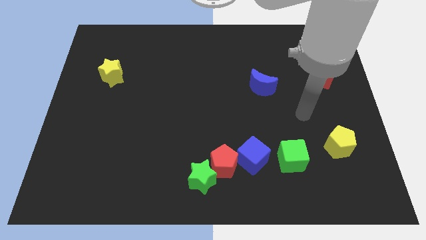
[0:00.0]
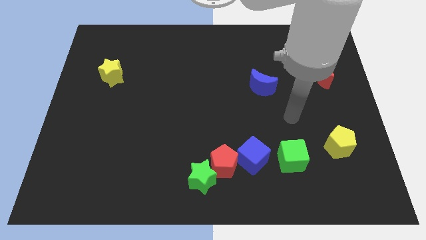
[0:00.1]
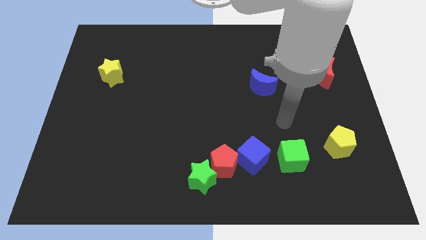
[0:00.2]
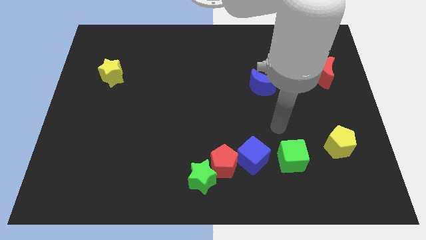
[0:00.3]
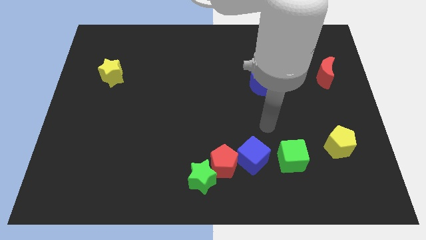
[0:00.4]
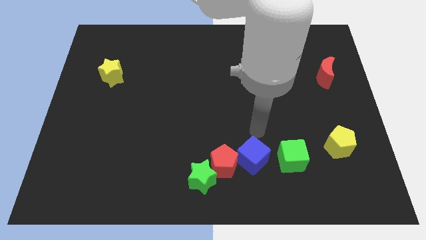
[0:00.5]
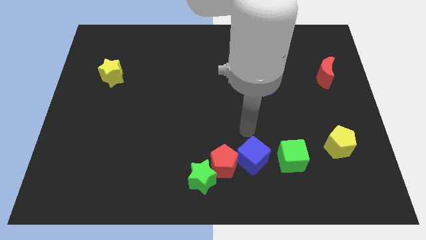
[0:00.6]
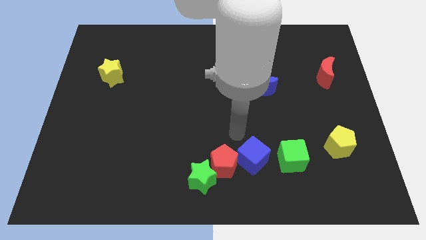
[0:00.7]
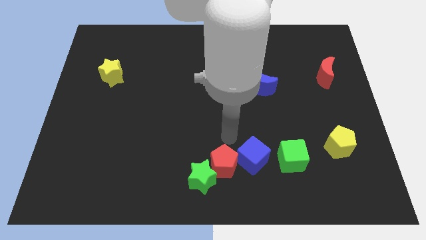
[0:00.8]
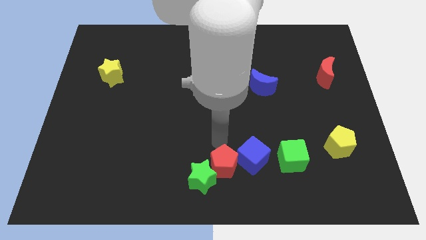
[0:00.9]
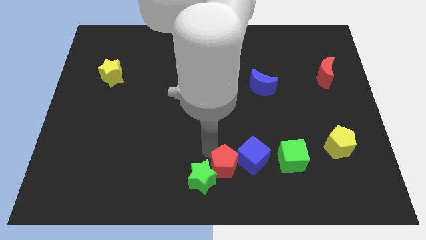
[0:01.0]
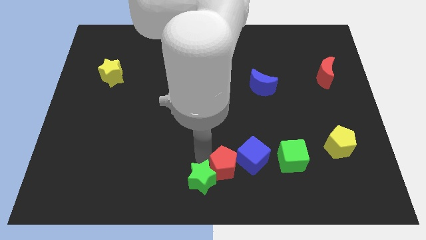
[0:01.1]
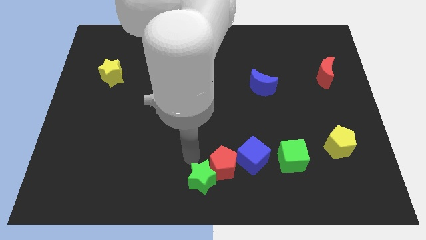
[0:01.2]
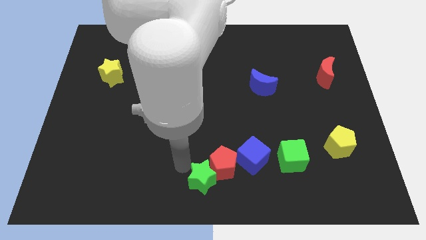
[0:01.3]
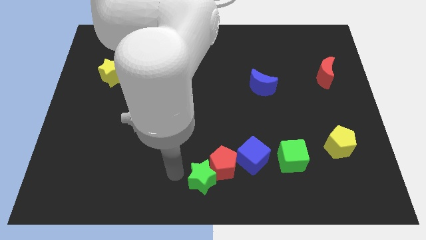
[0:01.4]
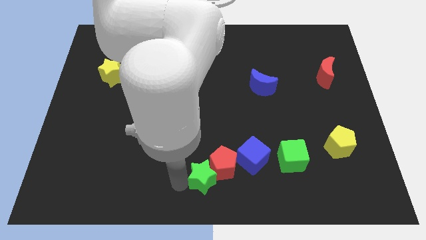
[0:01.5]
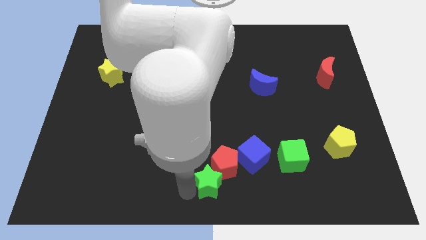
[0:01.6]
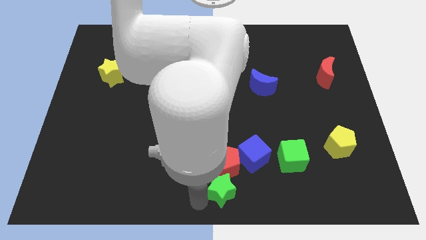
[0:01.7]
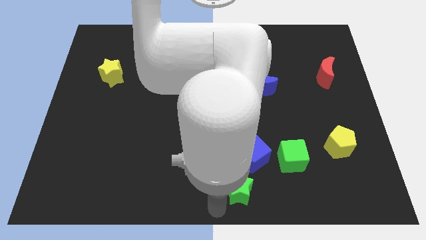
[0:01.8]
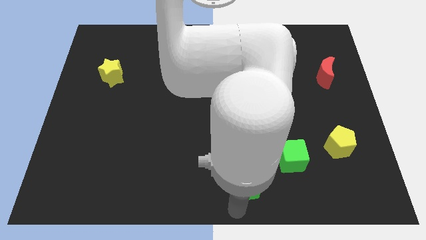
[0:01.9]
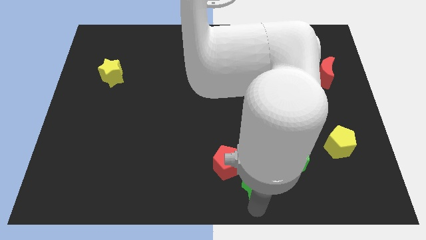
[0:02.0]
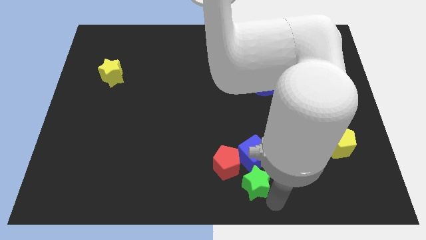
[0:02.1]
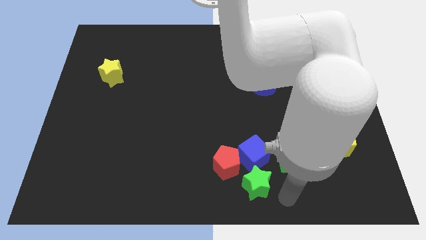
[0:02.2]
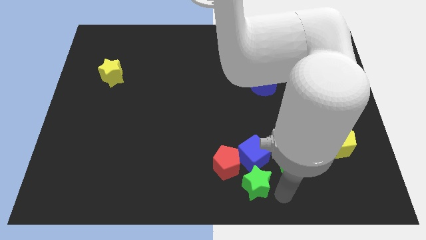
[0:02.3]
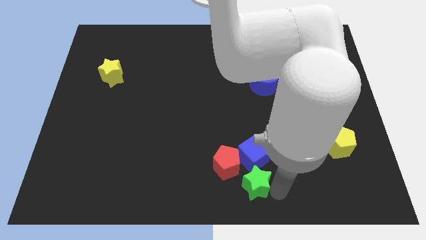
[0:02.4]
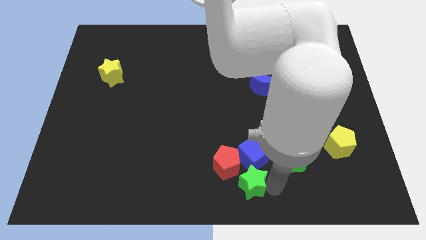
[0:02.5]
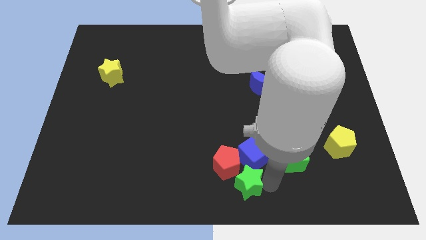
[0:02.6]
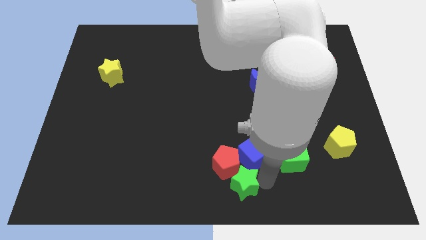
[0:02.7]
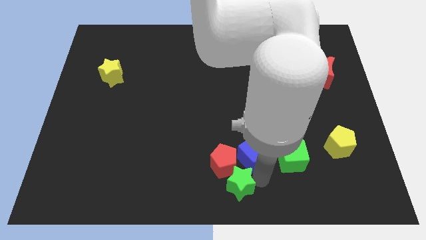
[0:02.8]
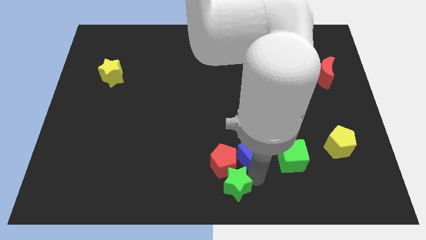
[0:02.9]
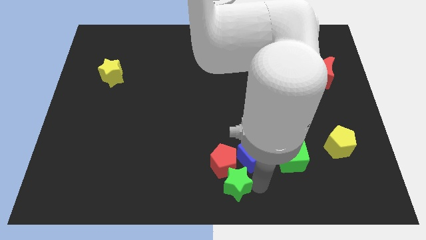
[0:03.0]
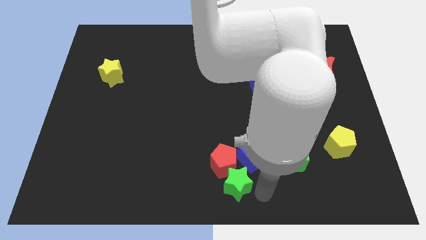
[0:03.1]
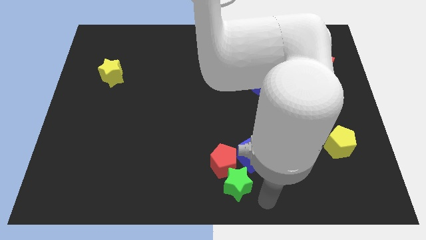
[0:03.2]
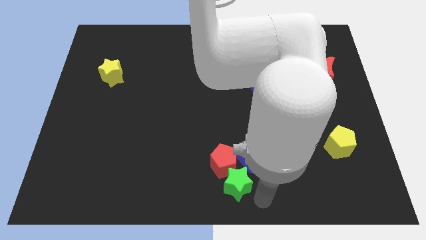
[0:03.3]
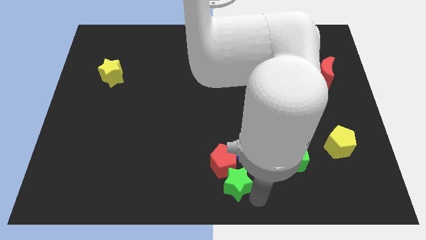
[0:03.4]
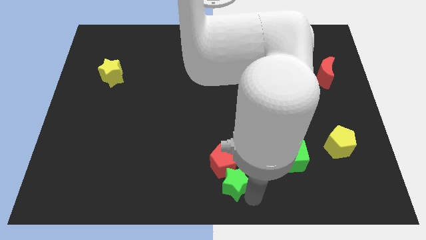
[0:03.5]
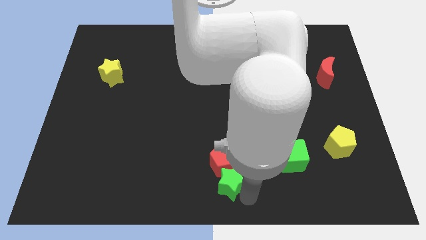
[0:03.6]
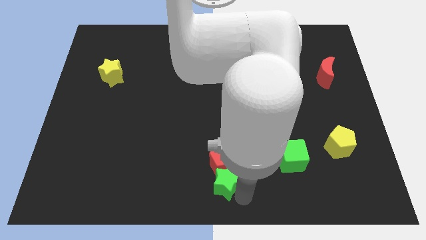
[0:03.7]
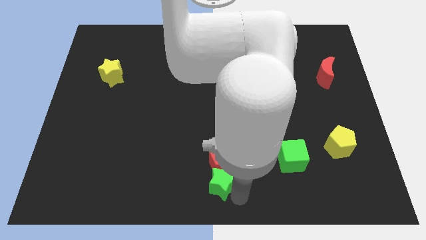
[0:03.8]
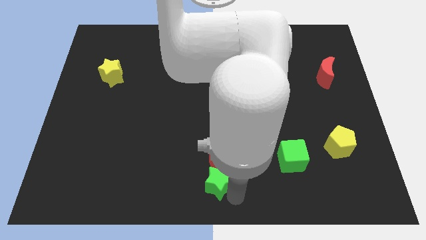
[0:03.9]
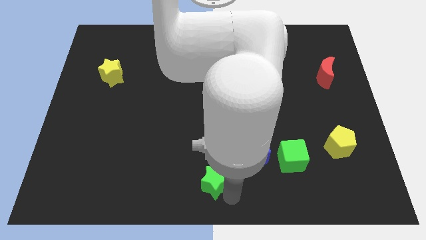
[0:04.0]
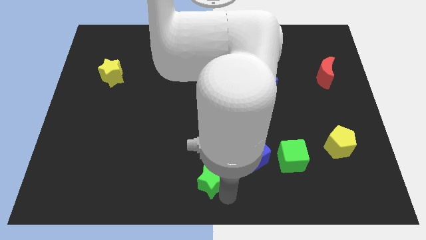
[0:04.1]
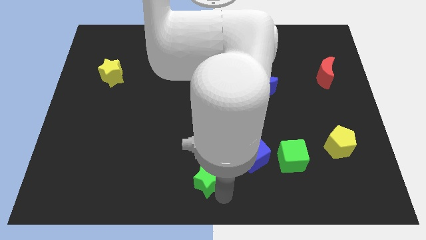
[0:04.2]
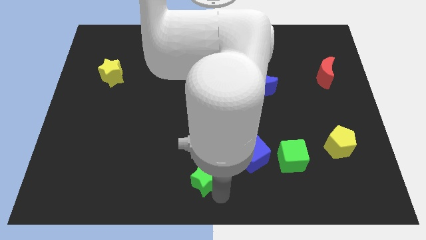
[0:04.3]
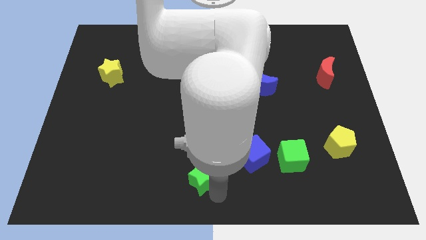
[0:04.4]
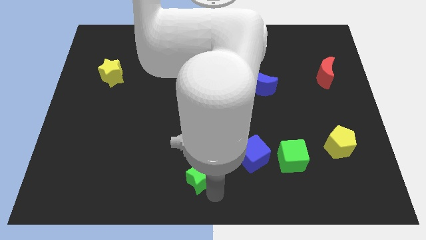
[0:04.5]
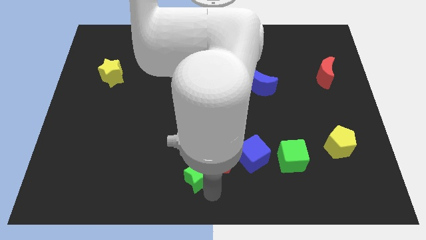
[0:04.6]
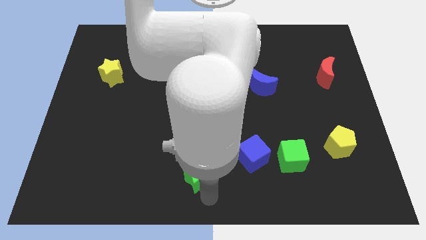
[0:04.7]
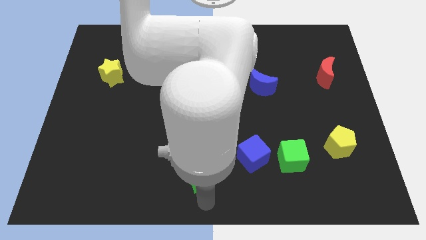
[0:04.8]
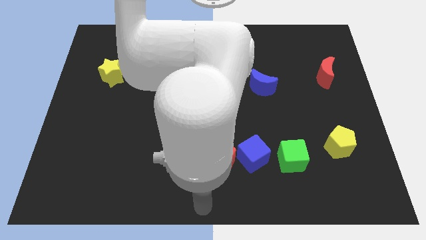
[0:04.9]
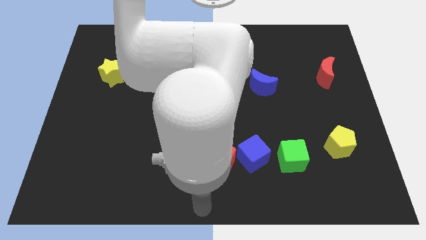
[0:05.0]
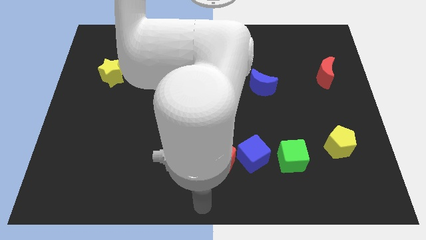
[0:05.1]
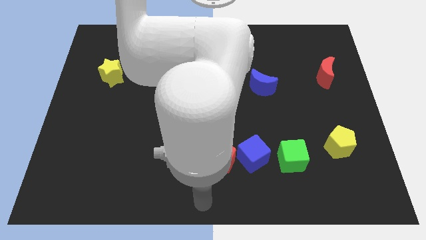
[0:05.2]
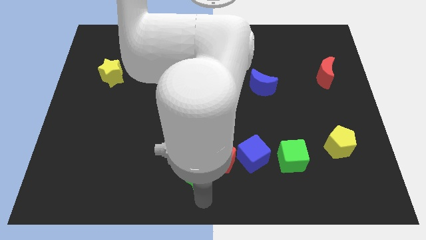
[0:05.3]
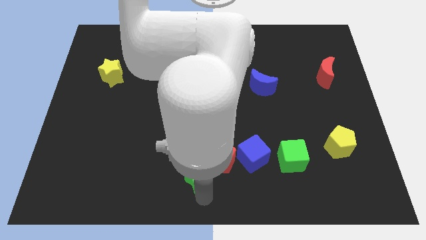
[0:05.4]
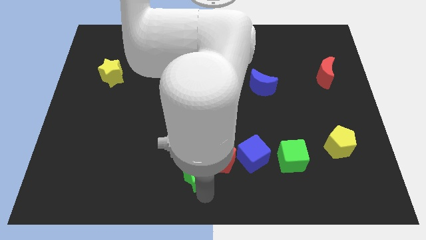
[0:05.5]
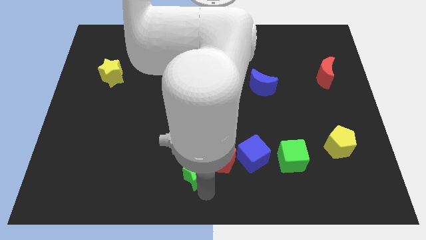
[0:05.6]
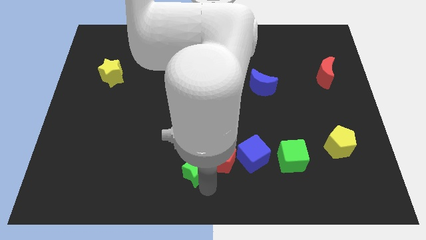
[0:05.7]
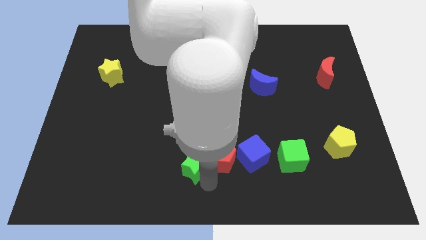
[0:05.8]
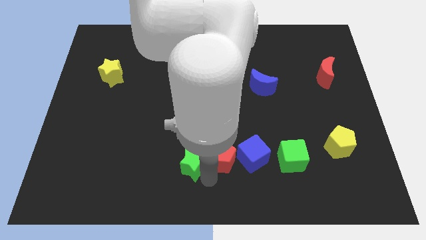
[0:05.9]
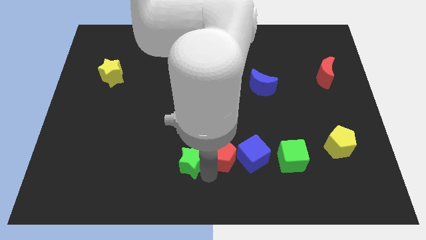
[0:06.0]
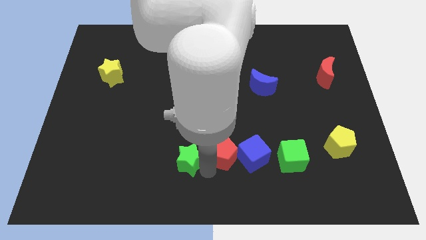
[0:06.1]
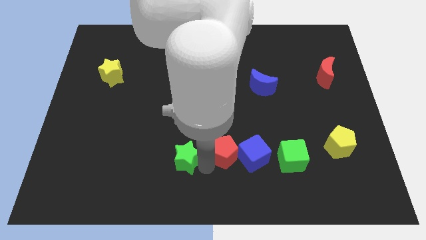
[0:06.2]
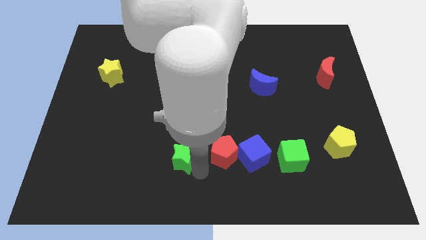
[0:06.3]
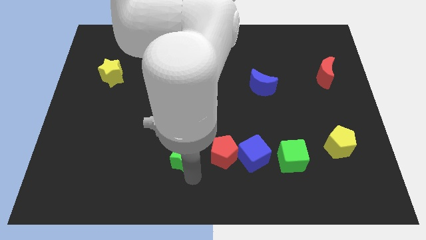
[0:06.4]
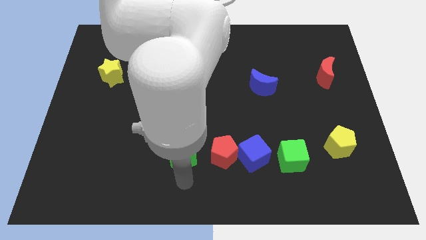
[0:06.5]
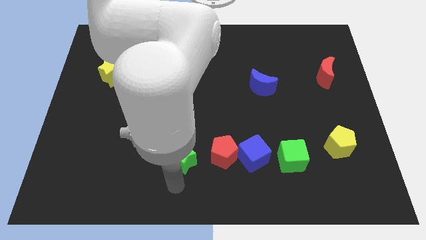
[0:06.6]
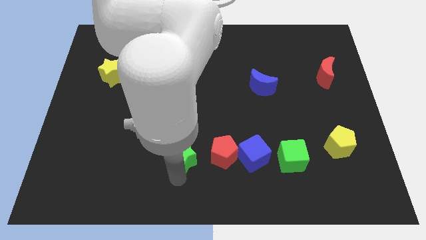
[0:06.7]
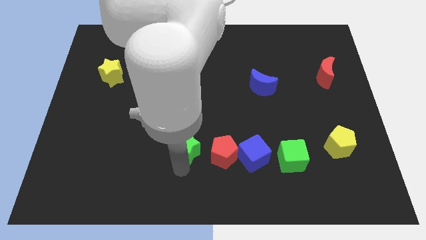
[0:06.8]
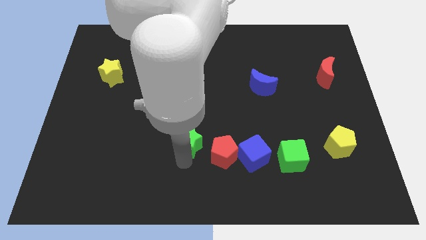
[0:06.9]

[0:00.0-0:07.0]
slightly slide the green star upwards

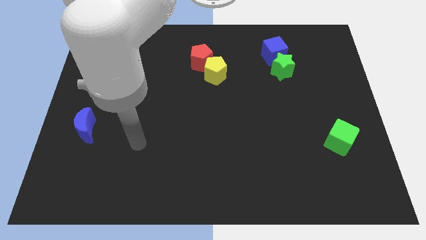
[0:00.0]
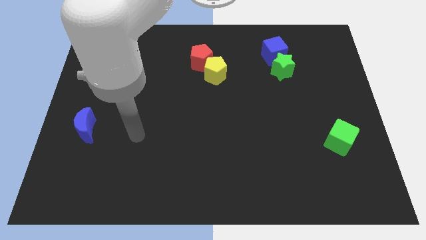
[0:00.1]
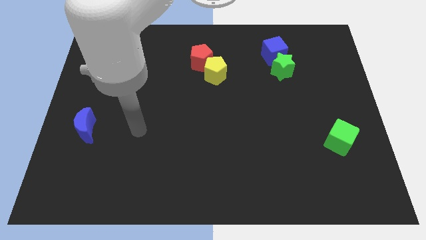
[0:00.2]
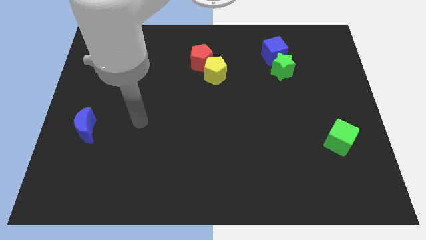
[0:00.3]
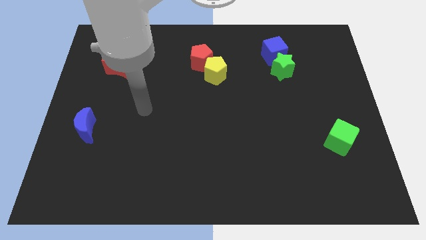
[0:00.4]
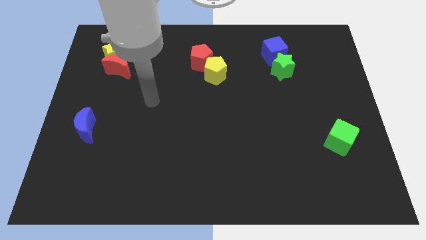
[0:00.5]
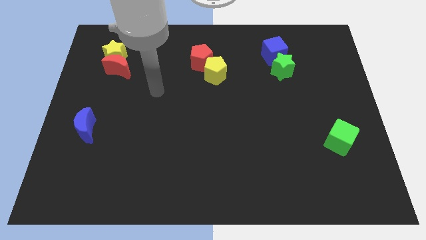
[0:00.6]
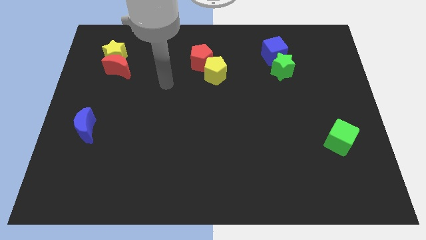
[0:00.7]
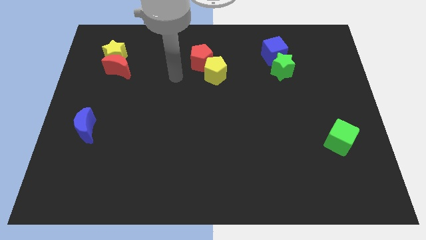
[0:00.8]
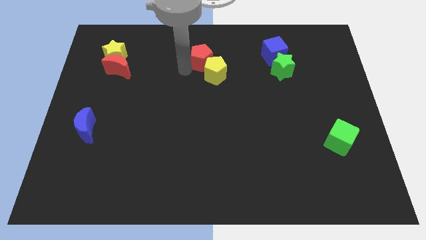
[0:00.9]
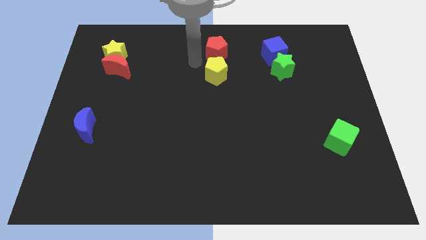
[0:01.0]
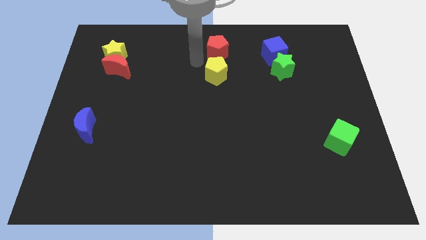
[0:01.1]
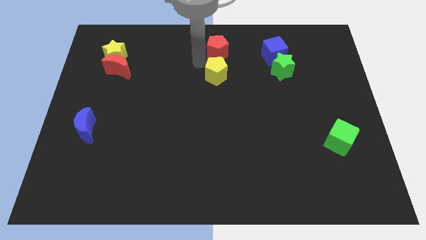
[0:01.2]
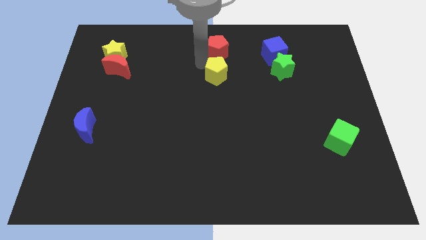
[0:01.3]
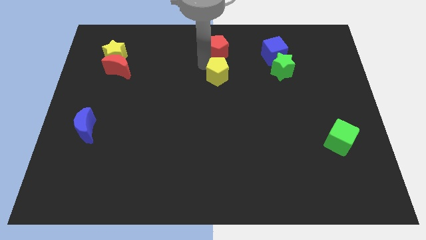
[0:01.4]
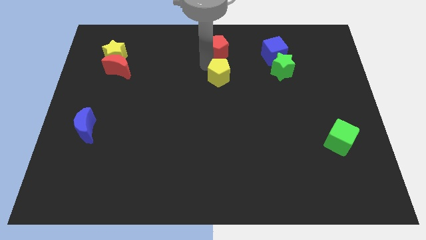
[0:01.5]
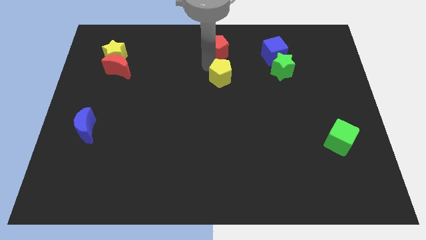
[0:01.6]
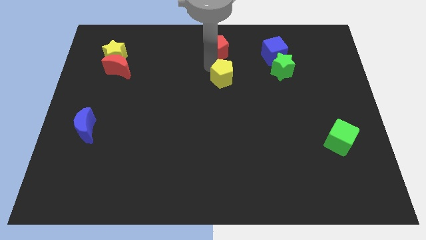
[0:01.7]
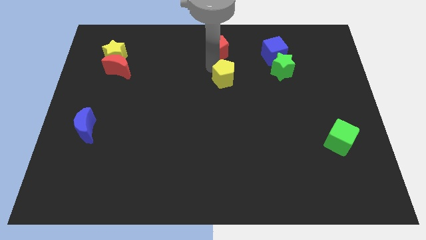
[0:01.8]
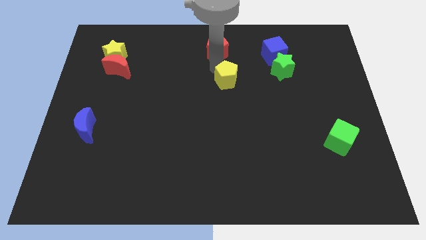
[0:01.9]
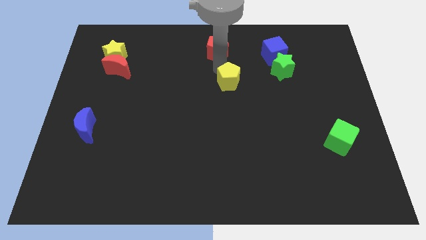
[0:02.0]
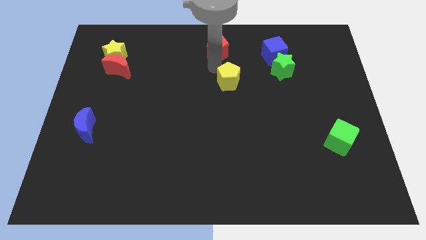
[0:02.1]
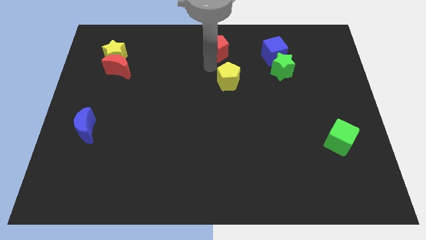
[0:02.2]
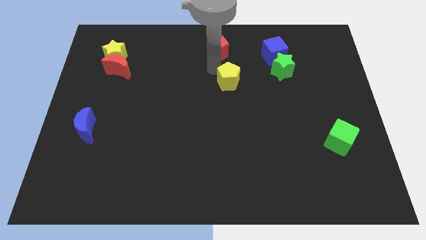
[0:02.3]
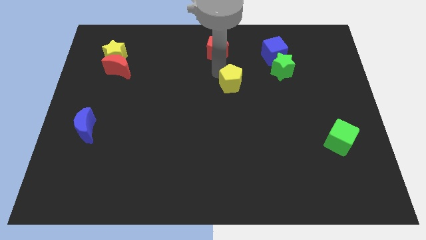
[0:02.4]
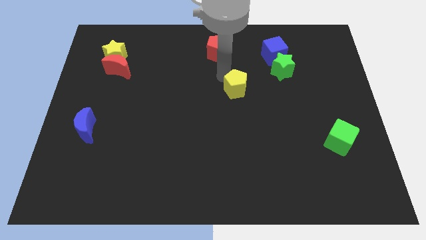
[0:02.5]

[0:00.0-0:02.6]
slide the yellow pentagon a bit downwards and then to the right
